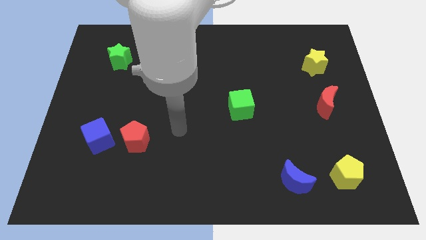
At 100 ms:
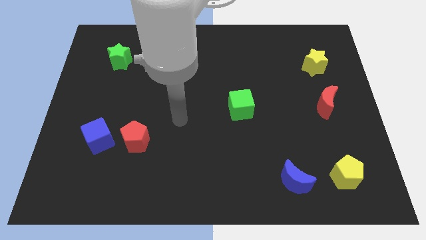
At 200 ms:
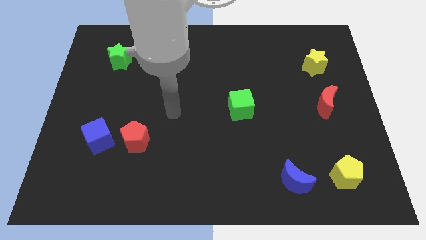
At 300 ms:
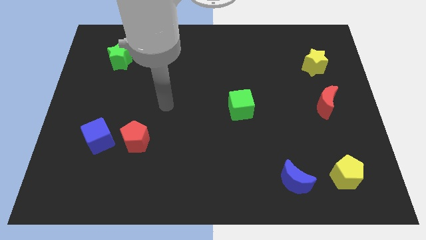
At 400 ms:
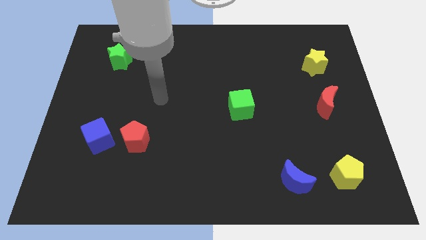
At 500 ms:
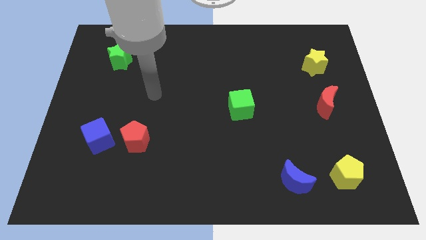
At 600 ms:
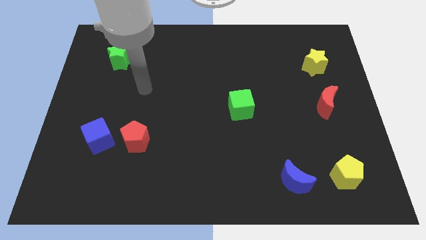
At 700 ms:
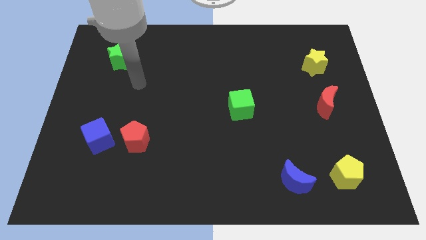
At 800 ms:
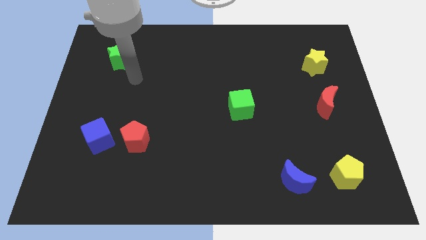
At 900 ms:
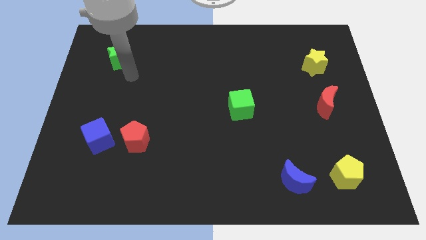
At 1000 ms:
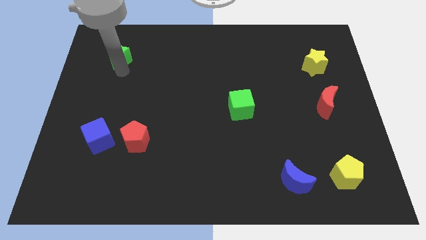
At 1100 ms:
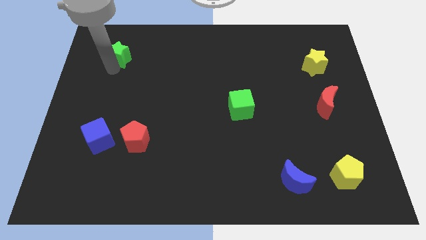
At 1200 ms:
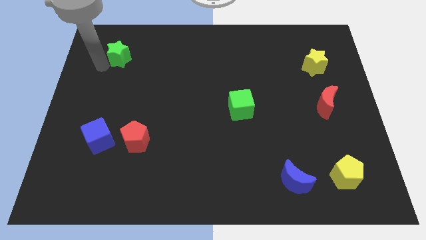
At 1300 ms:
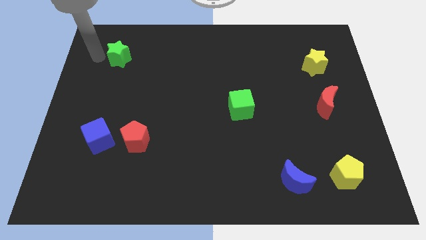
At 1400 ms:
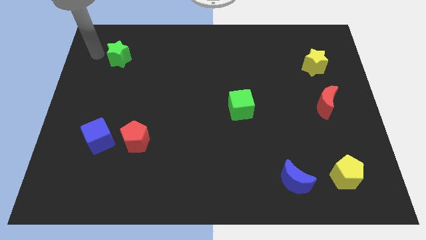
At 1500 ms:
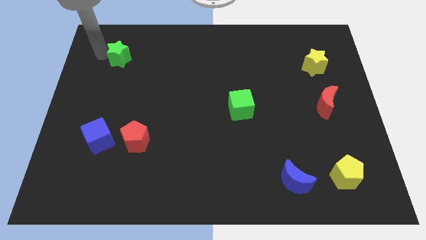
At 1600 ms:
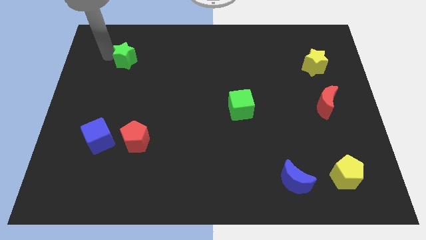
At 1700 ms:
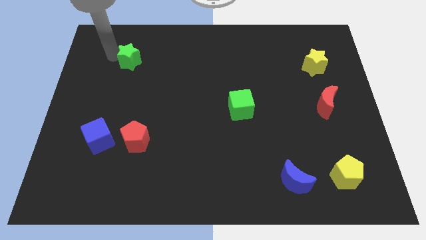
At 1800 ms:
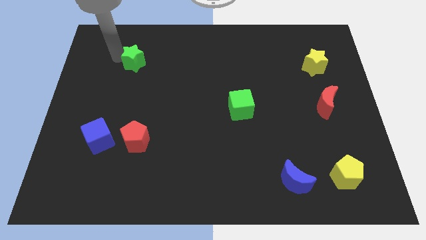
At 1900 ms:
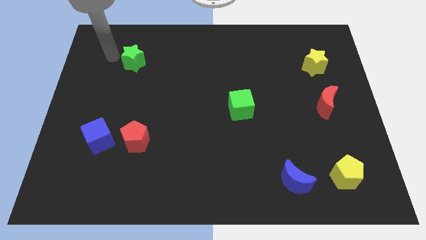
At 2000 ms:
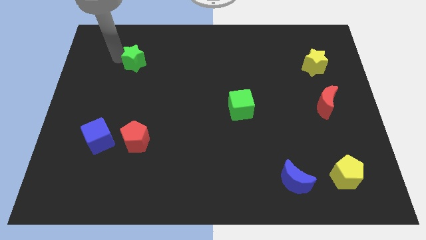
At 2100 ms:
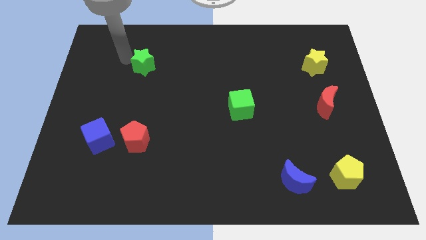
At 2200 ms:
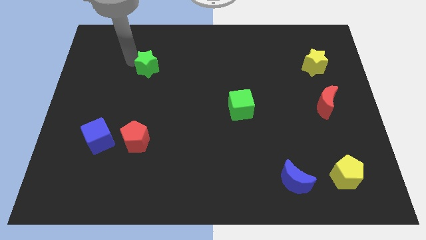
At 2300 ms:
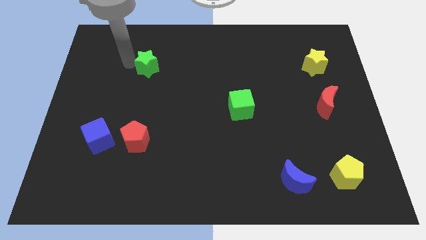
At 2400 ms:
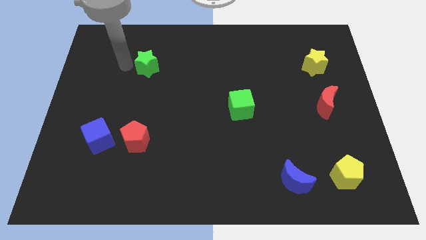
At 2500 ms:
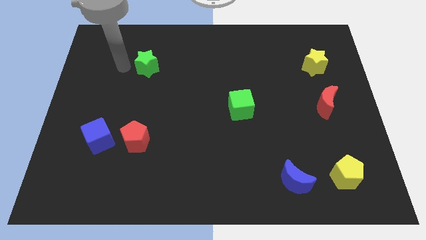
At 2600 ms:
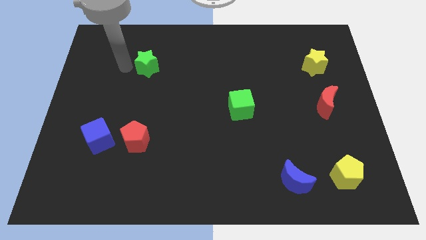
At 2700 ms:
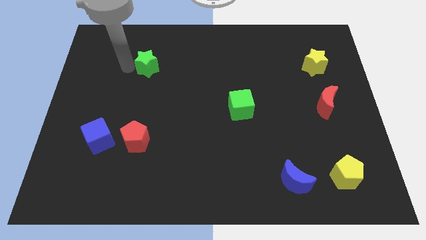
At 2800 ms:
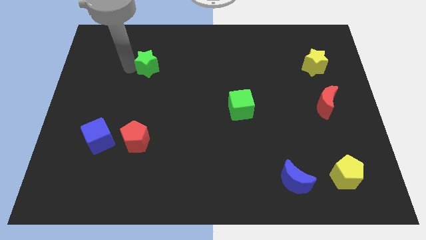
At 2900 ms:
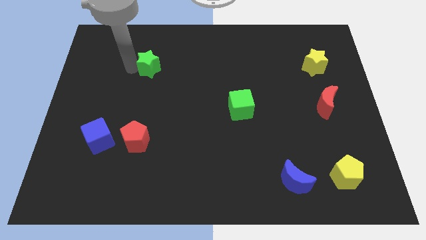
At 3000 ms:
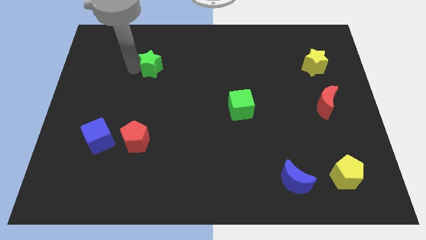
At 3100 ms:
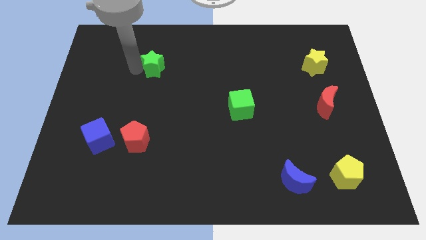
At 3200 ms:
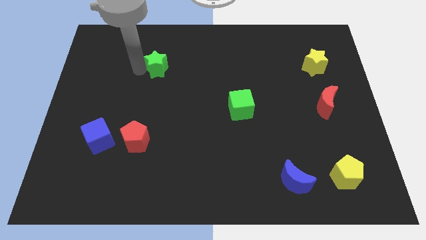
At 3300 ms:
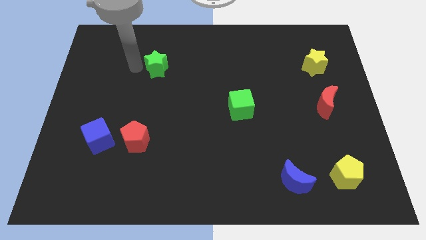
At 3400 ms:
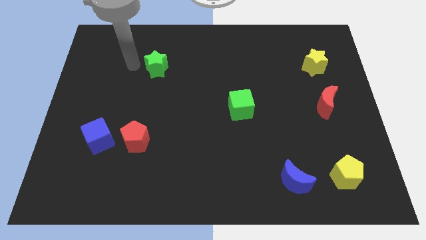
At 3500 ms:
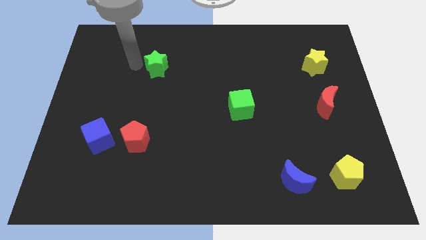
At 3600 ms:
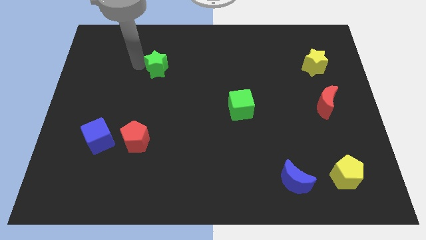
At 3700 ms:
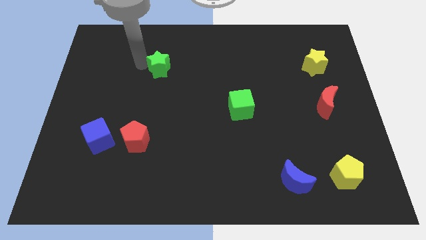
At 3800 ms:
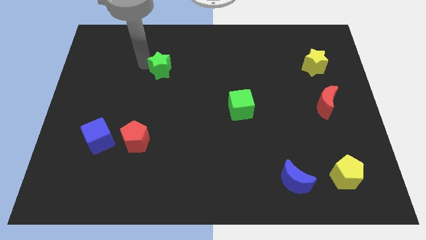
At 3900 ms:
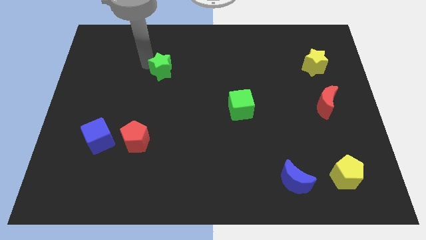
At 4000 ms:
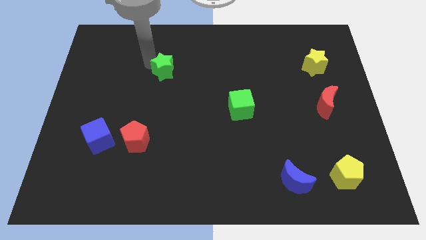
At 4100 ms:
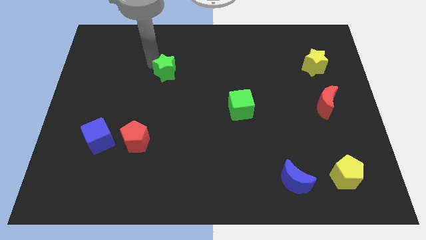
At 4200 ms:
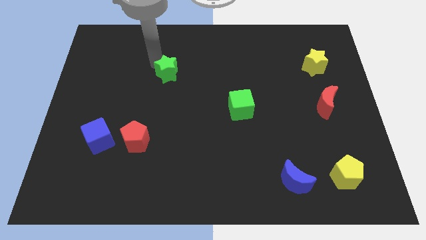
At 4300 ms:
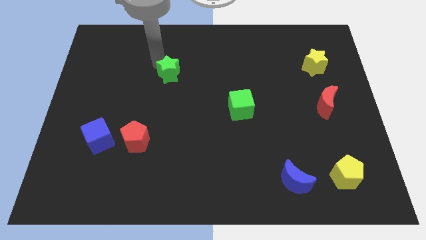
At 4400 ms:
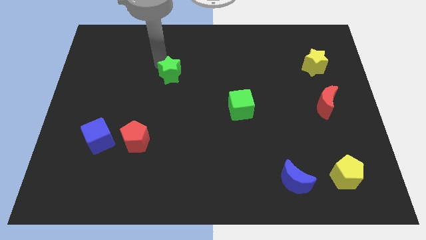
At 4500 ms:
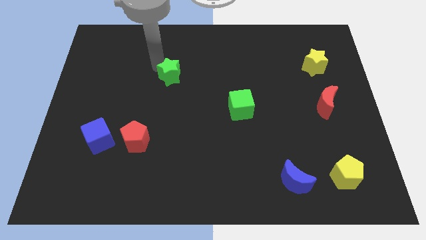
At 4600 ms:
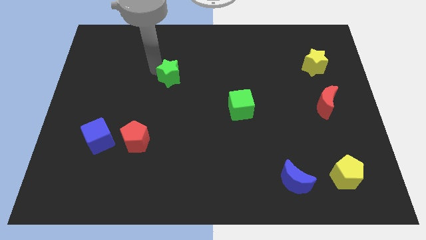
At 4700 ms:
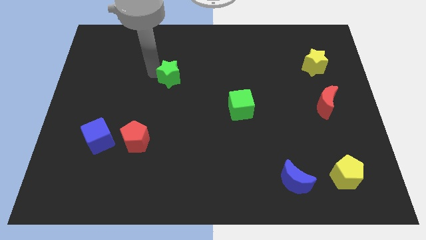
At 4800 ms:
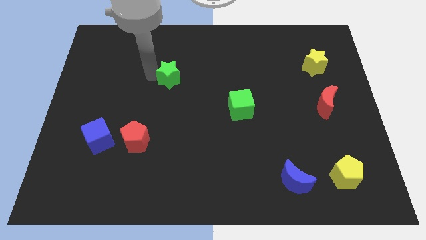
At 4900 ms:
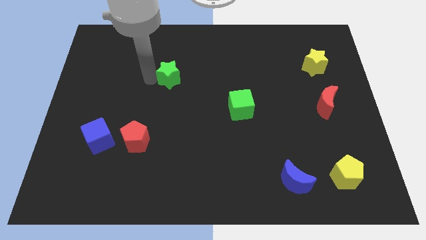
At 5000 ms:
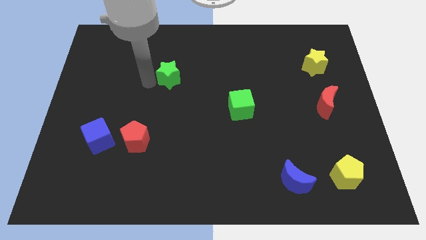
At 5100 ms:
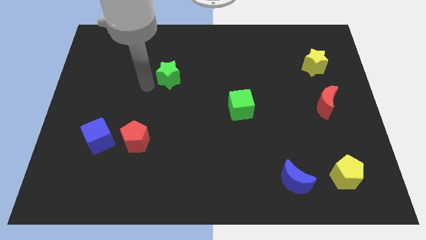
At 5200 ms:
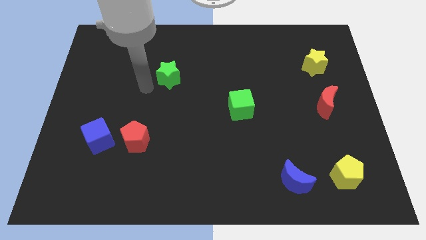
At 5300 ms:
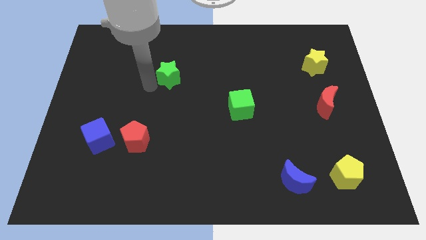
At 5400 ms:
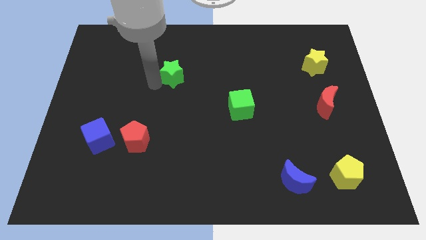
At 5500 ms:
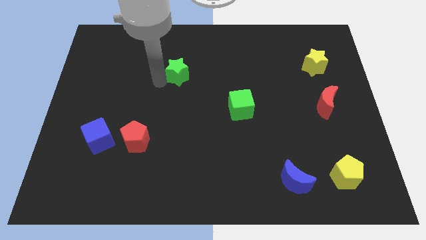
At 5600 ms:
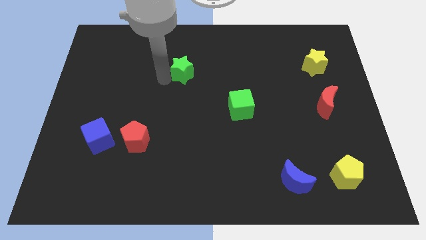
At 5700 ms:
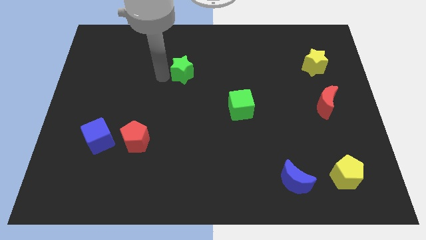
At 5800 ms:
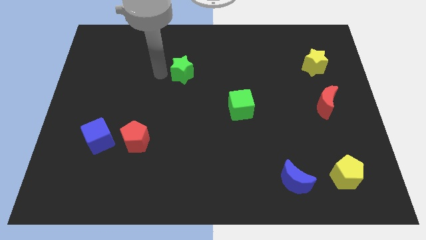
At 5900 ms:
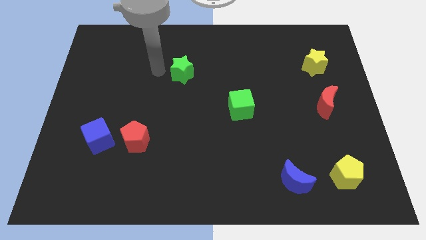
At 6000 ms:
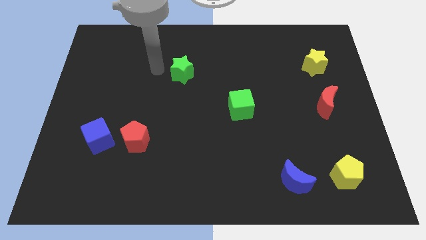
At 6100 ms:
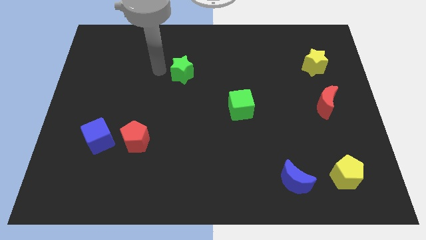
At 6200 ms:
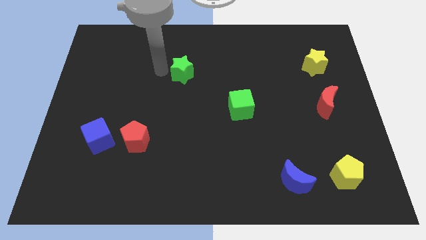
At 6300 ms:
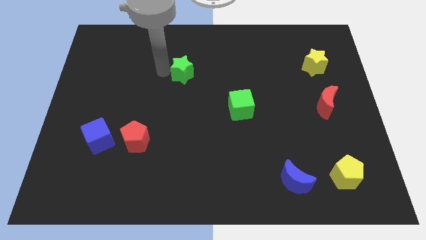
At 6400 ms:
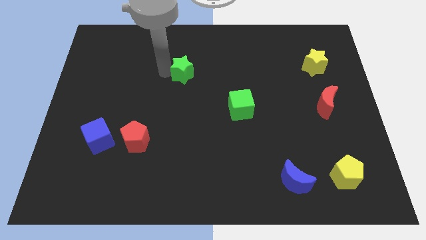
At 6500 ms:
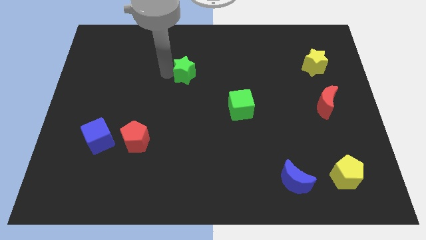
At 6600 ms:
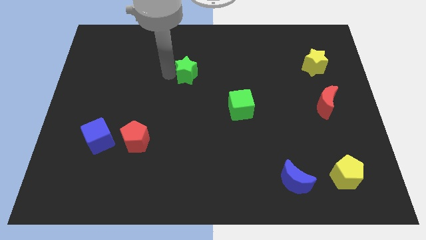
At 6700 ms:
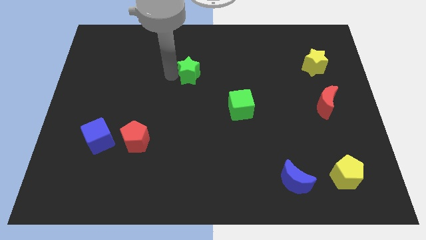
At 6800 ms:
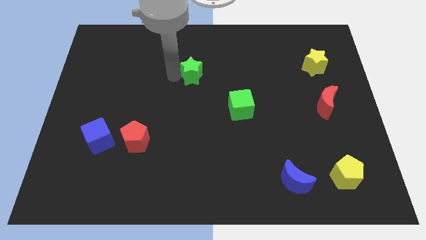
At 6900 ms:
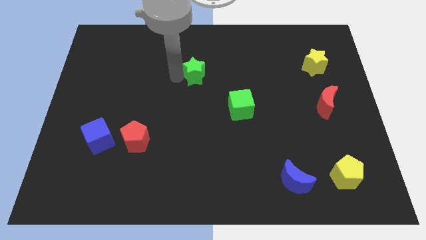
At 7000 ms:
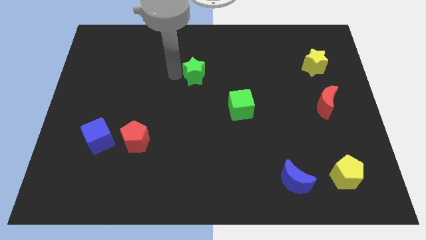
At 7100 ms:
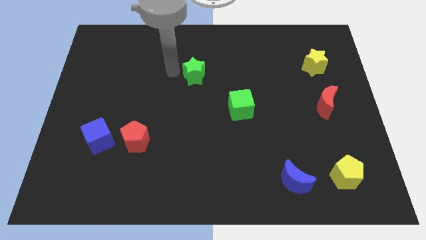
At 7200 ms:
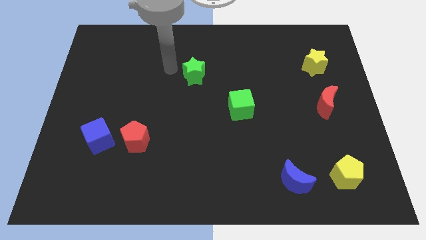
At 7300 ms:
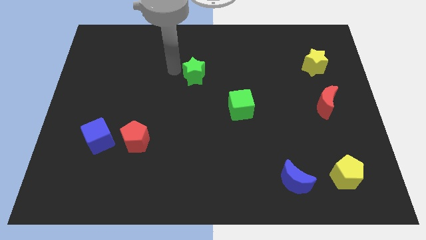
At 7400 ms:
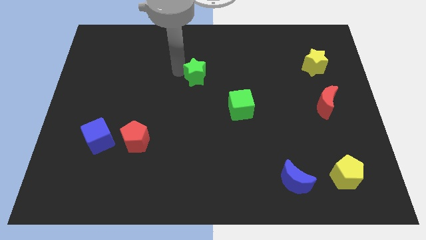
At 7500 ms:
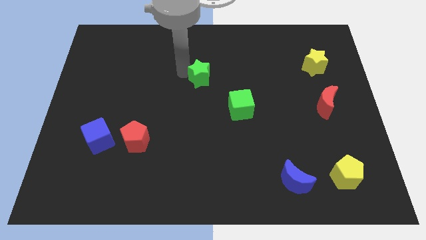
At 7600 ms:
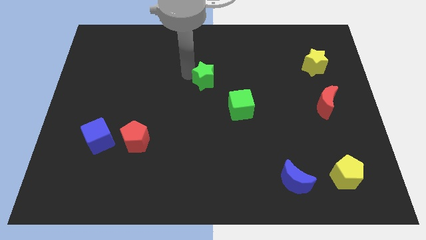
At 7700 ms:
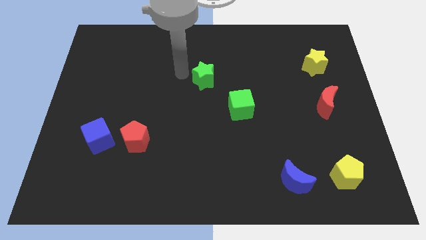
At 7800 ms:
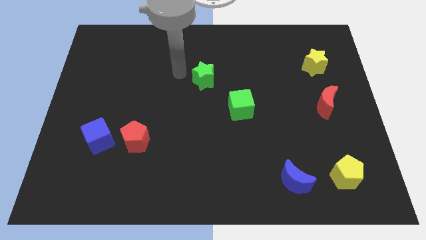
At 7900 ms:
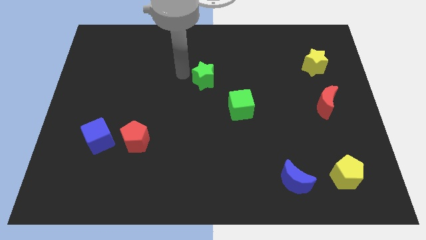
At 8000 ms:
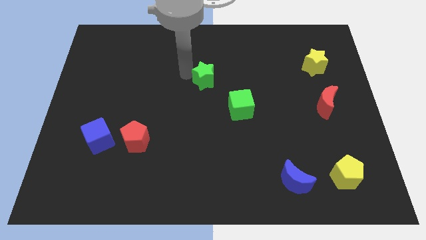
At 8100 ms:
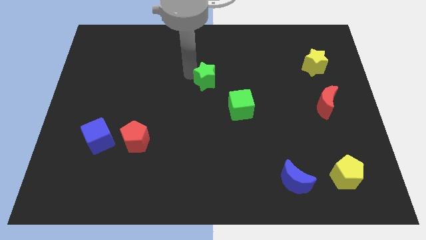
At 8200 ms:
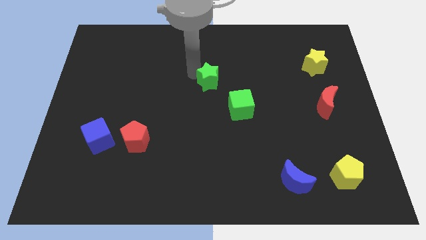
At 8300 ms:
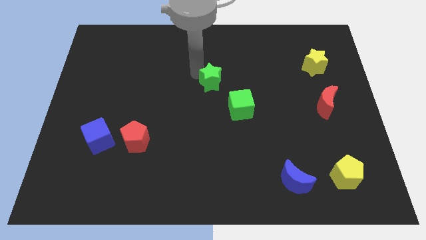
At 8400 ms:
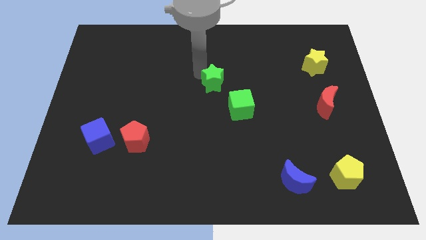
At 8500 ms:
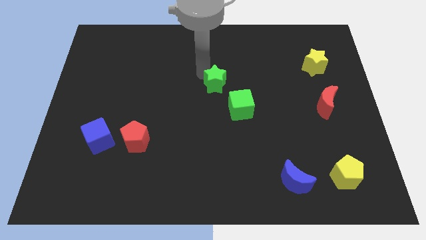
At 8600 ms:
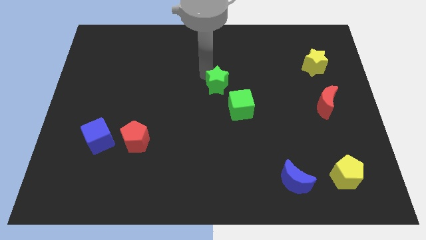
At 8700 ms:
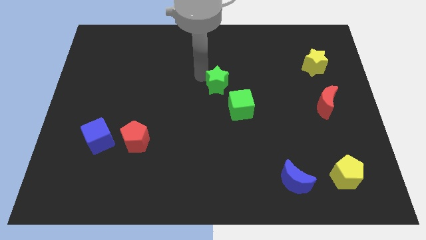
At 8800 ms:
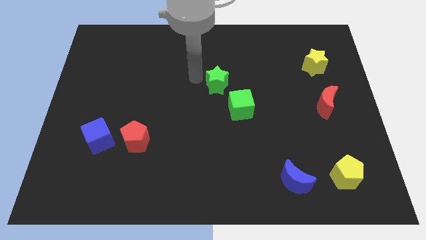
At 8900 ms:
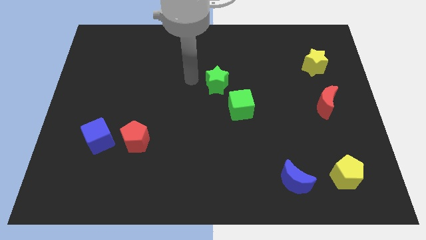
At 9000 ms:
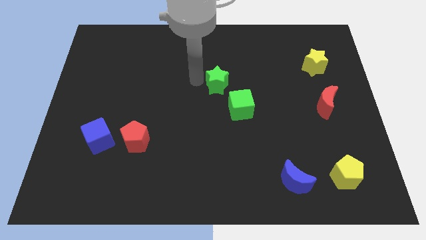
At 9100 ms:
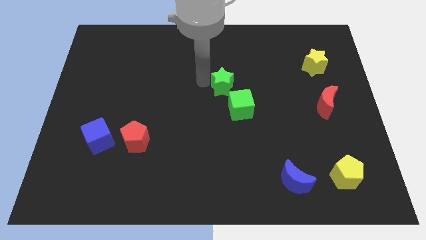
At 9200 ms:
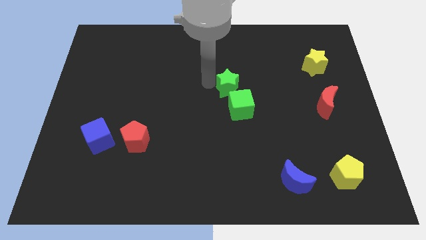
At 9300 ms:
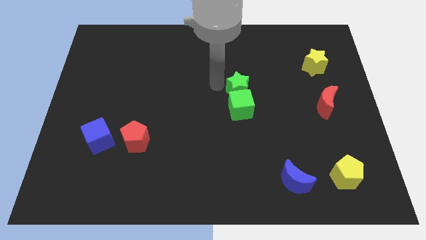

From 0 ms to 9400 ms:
move the green star diagonally up and to the right of the green cube
